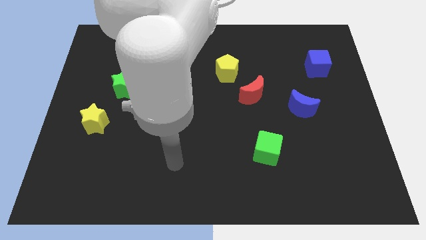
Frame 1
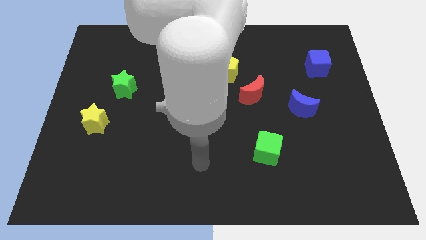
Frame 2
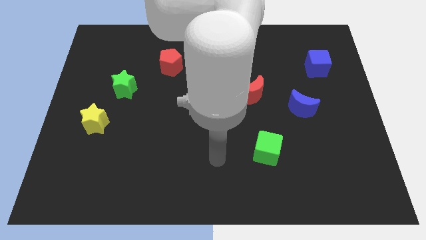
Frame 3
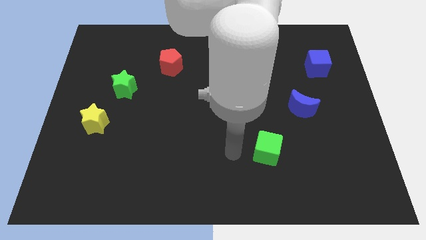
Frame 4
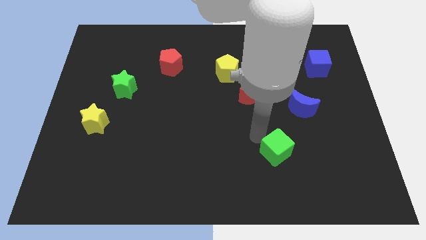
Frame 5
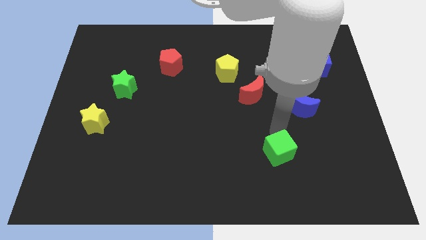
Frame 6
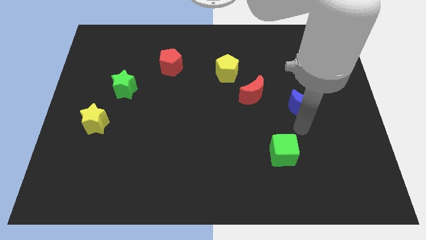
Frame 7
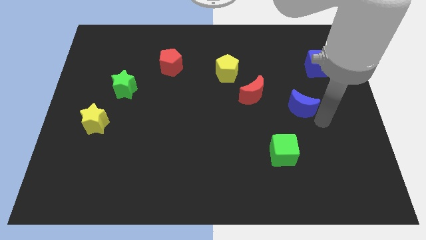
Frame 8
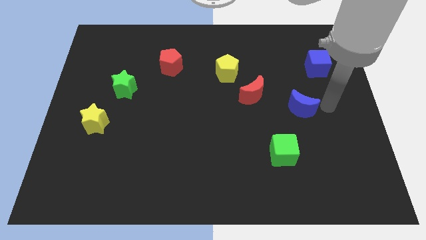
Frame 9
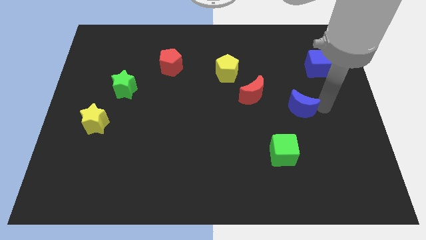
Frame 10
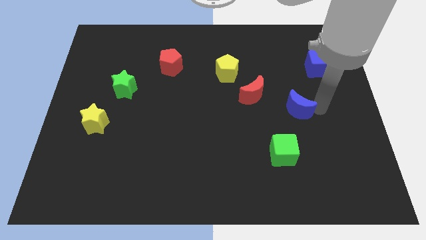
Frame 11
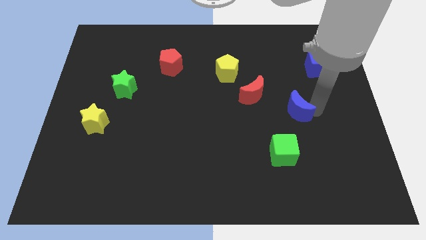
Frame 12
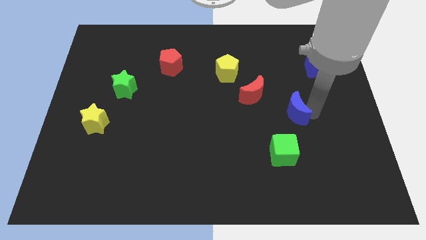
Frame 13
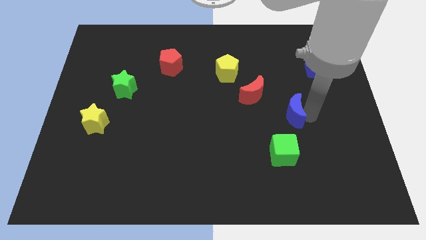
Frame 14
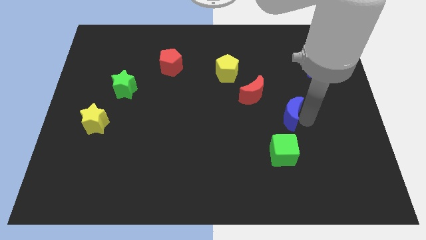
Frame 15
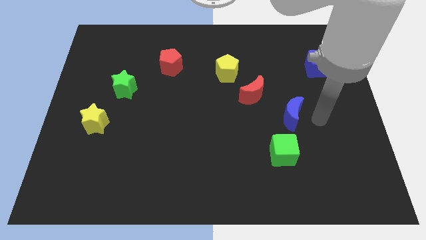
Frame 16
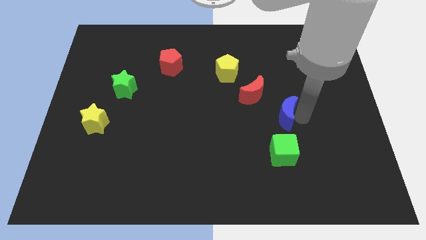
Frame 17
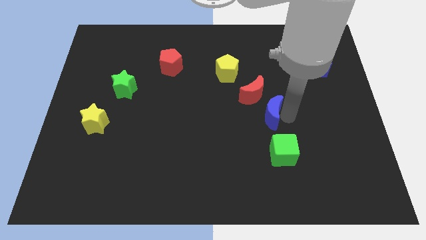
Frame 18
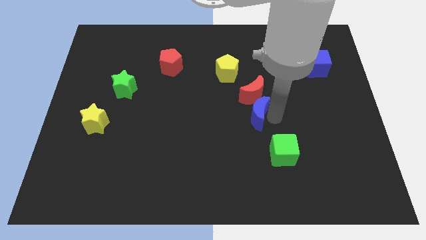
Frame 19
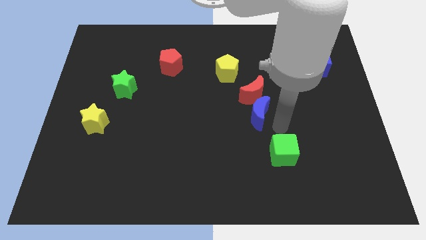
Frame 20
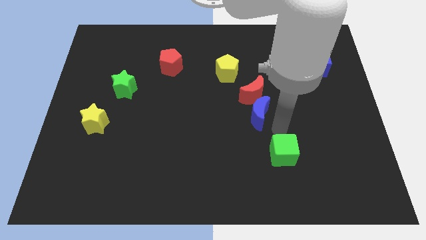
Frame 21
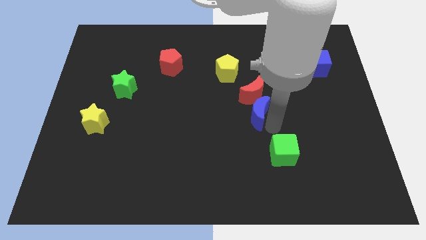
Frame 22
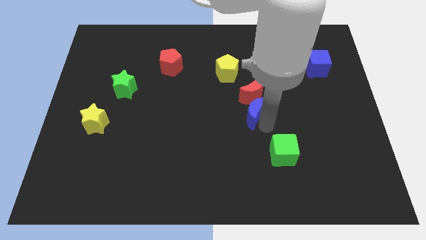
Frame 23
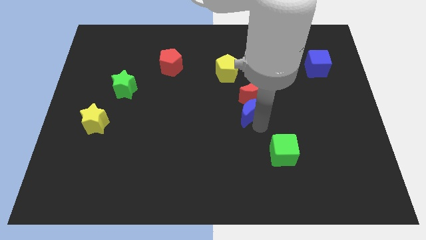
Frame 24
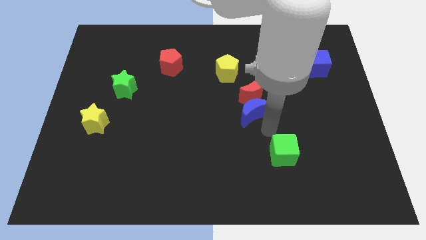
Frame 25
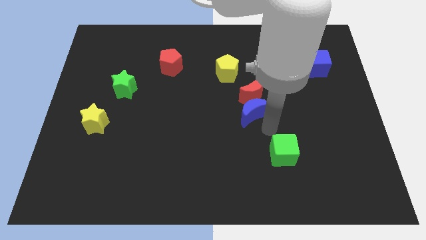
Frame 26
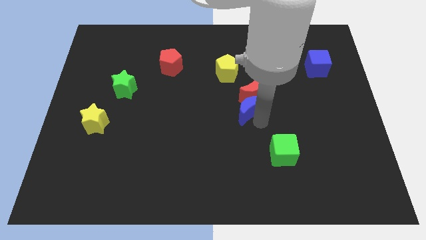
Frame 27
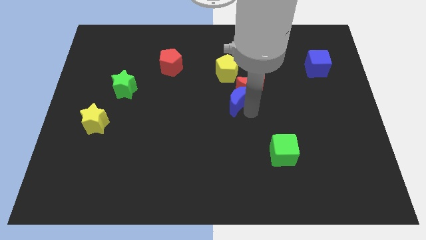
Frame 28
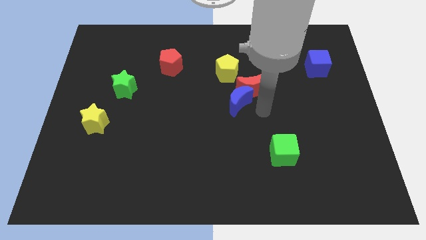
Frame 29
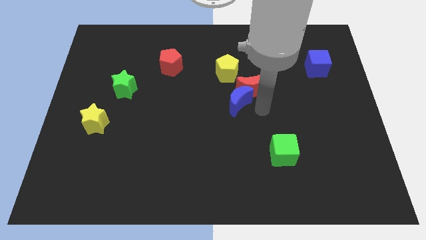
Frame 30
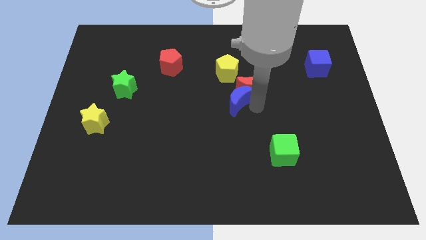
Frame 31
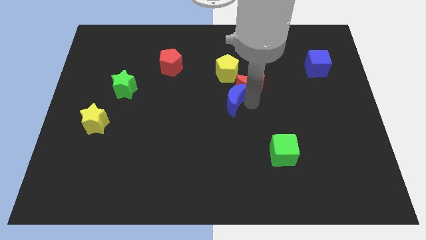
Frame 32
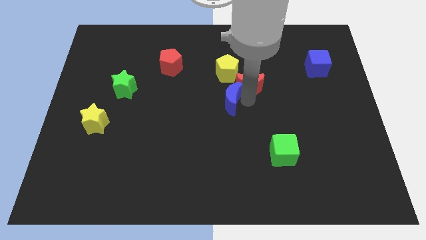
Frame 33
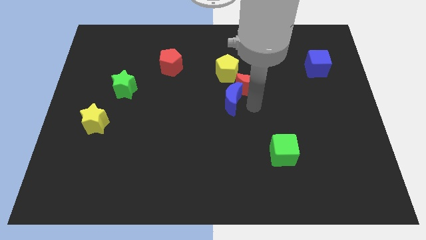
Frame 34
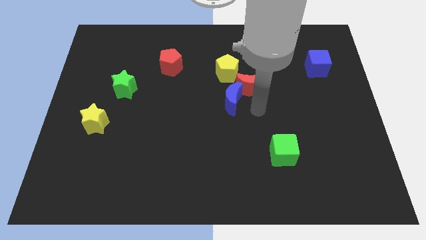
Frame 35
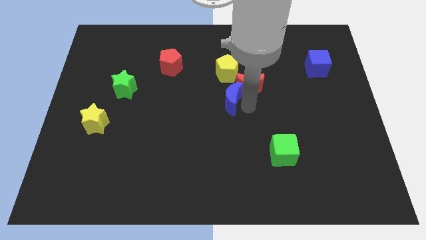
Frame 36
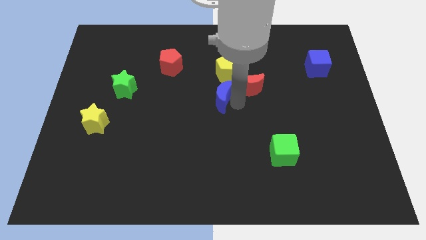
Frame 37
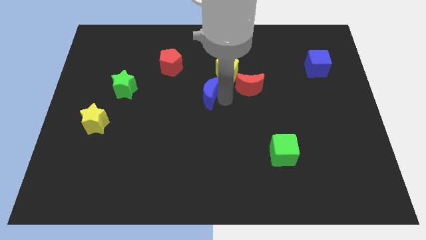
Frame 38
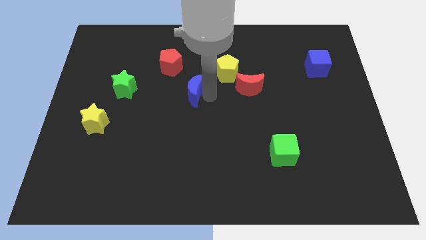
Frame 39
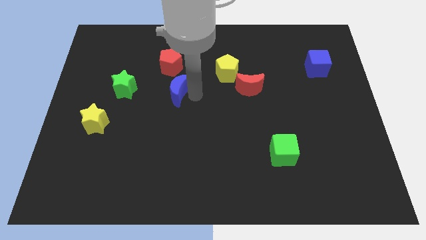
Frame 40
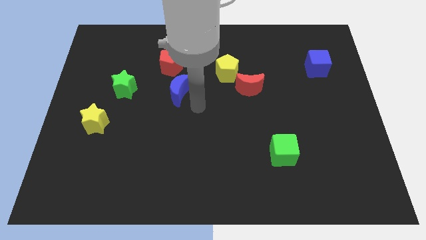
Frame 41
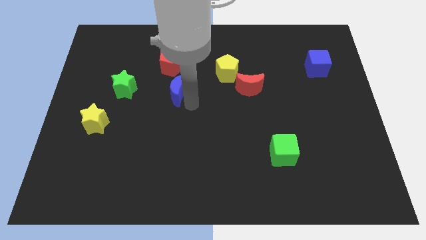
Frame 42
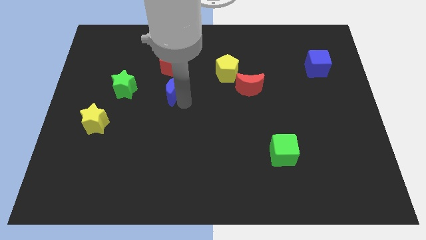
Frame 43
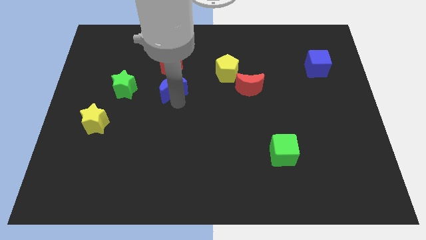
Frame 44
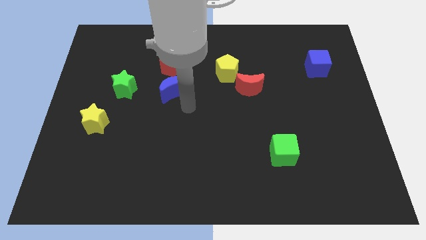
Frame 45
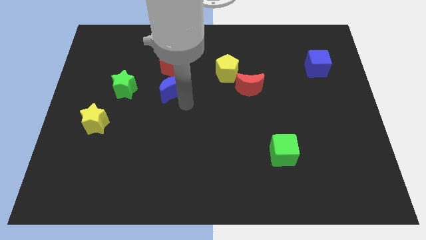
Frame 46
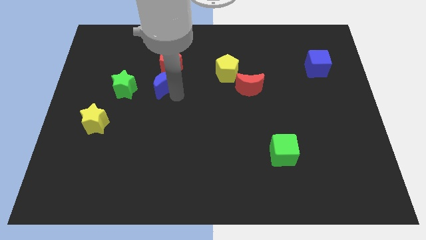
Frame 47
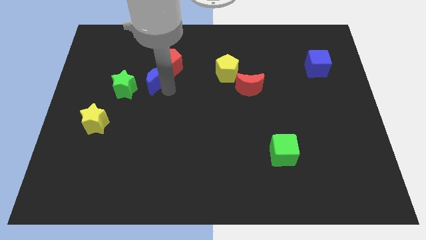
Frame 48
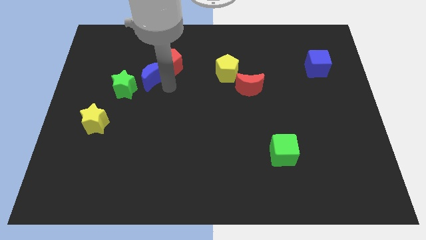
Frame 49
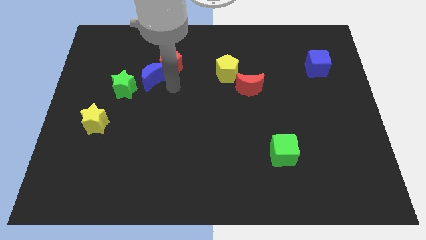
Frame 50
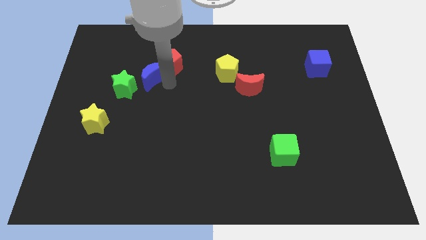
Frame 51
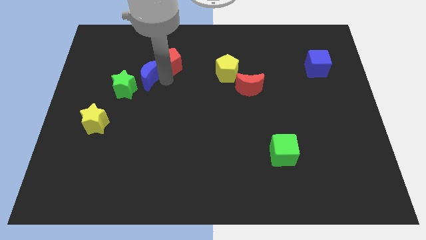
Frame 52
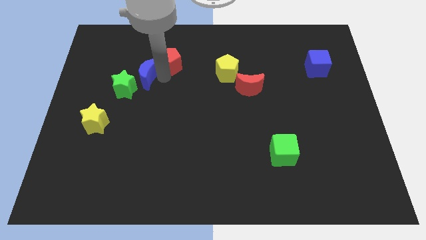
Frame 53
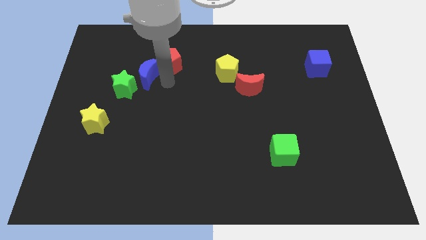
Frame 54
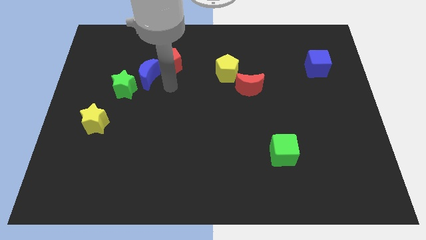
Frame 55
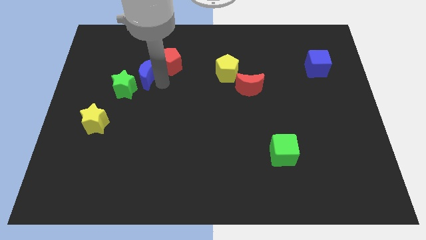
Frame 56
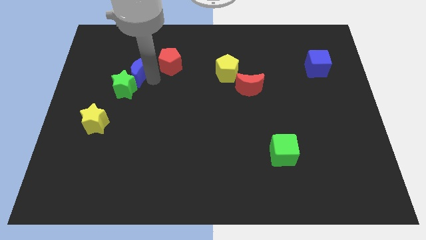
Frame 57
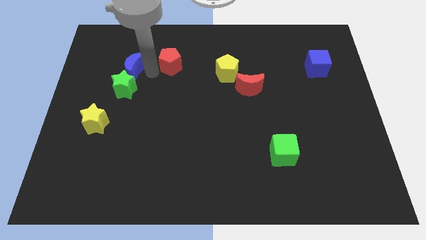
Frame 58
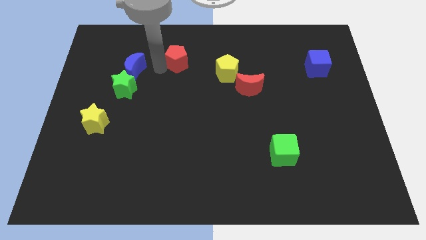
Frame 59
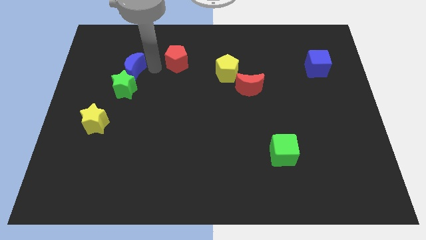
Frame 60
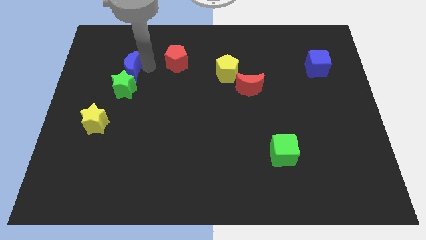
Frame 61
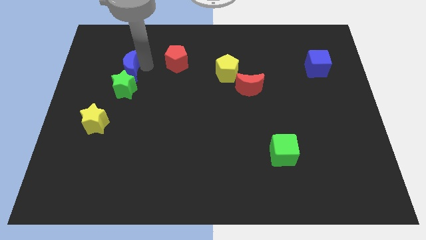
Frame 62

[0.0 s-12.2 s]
slide the blue moon diagonally up and to the left of the green star

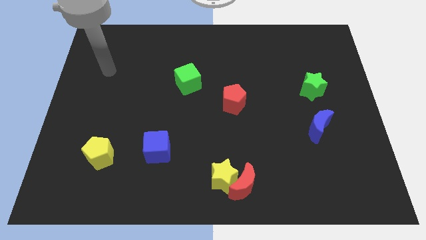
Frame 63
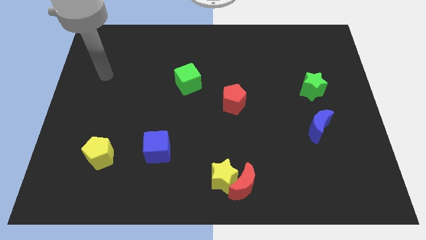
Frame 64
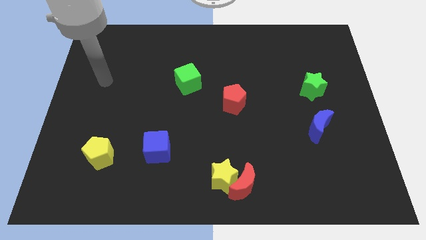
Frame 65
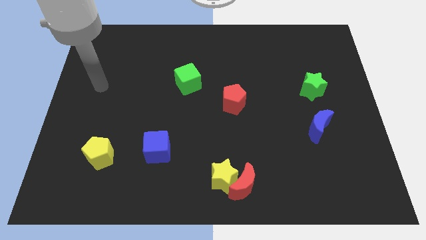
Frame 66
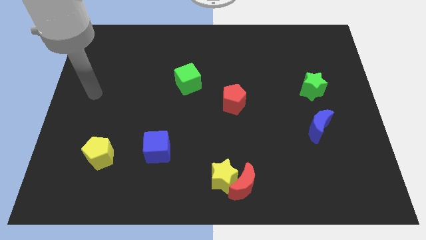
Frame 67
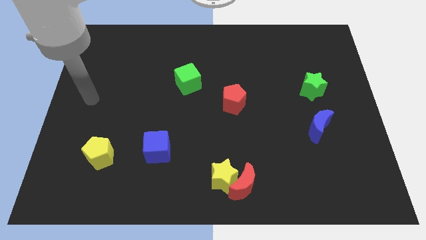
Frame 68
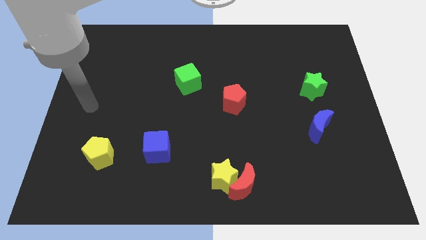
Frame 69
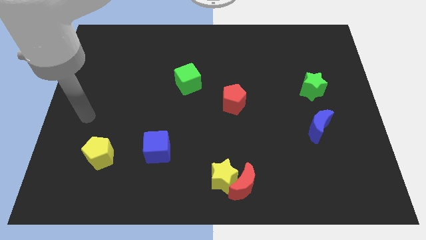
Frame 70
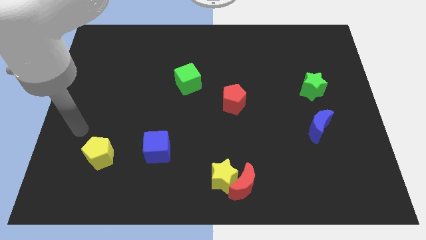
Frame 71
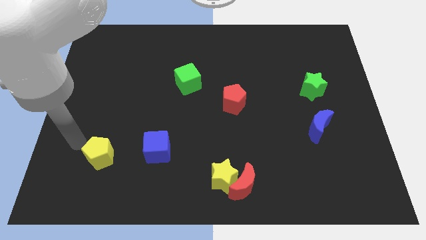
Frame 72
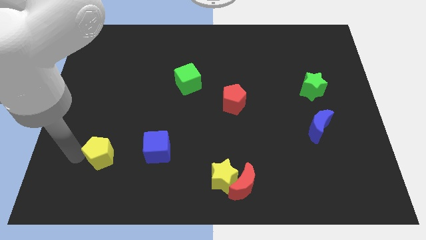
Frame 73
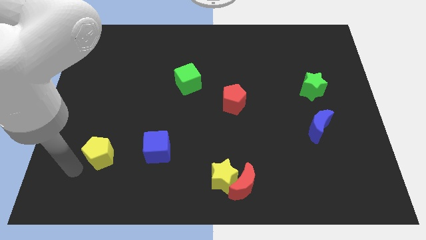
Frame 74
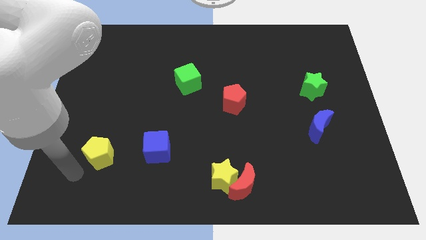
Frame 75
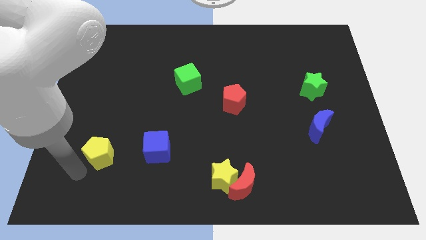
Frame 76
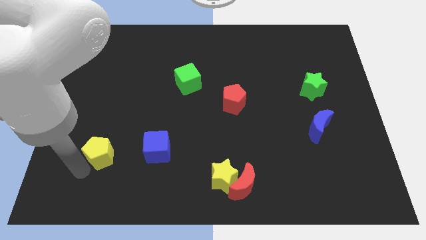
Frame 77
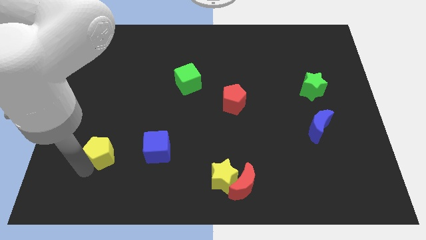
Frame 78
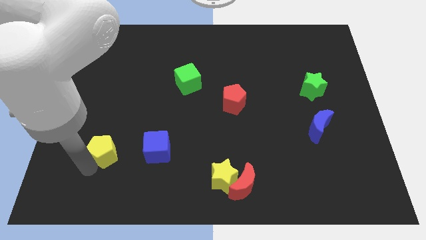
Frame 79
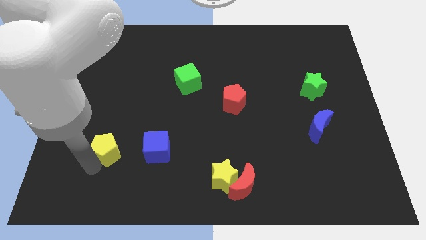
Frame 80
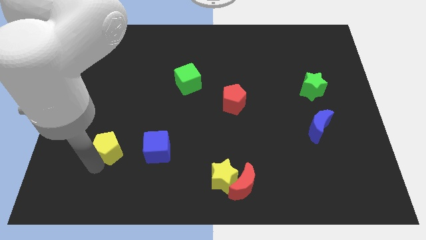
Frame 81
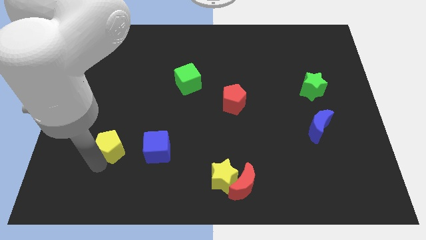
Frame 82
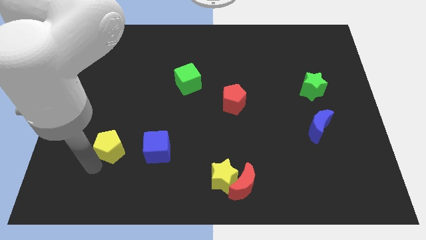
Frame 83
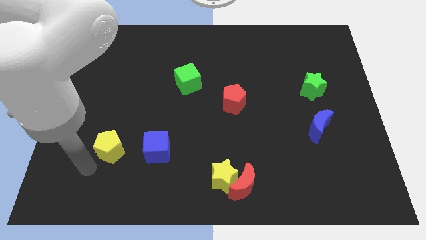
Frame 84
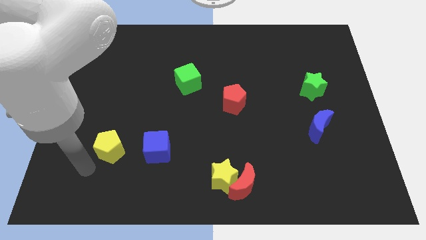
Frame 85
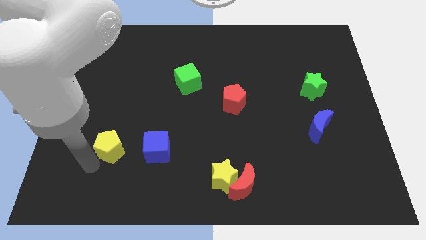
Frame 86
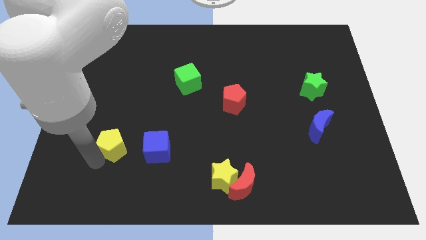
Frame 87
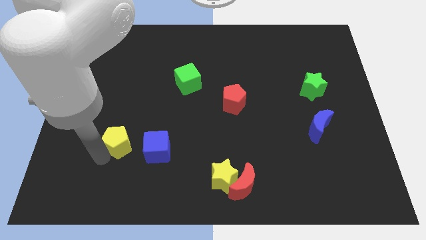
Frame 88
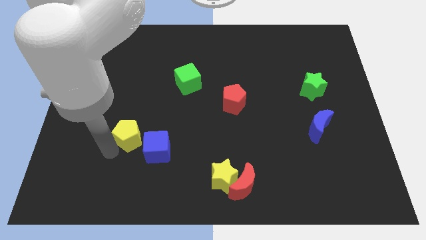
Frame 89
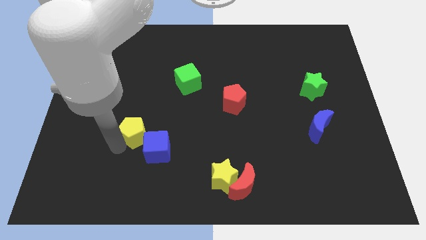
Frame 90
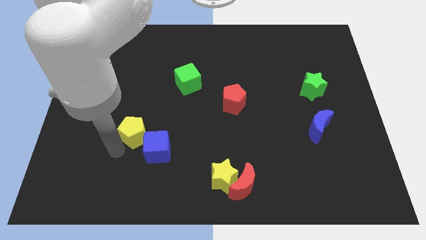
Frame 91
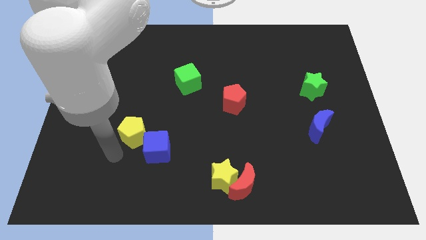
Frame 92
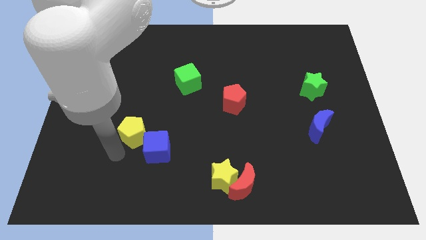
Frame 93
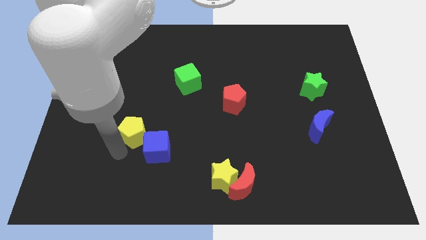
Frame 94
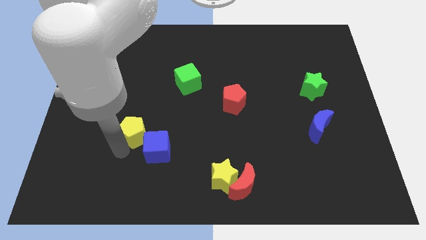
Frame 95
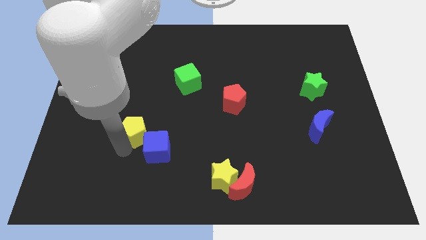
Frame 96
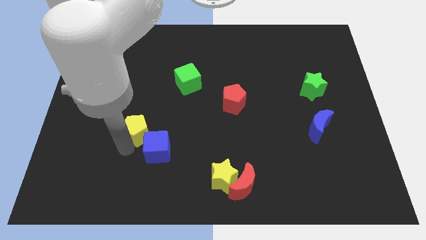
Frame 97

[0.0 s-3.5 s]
put the yellow pentagon to the top side of the blue cube
